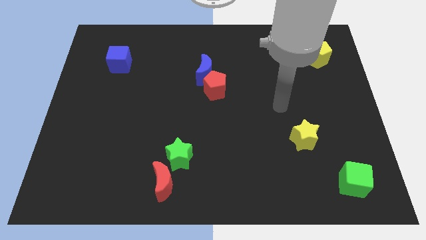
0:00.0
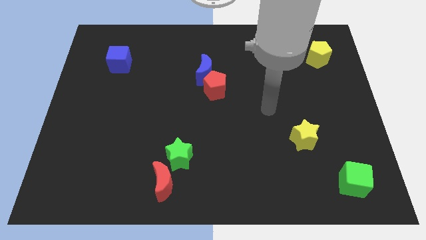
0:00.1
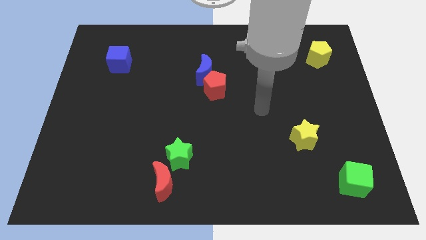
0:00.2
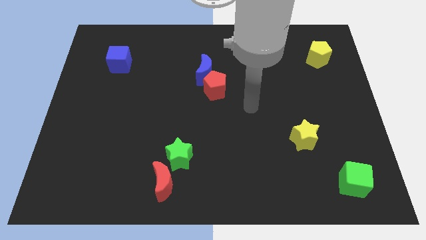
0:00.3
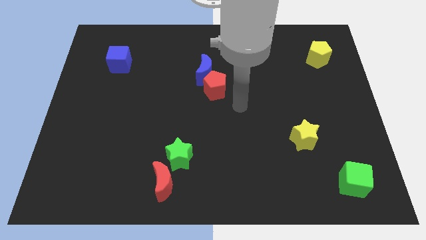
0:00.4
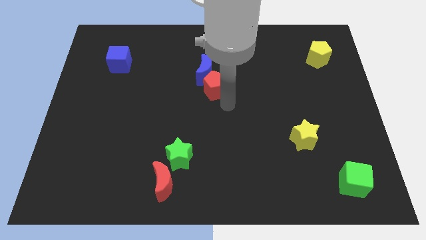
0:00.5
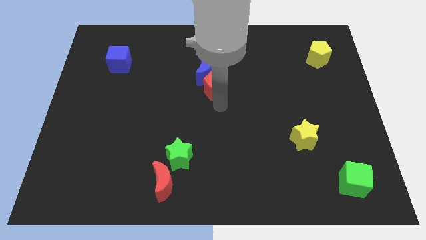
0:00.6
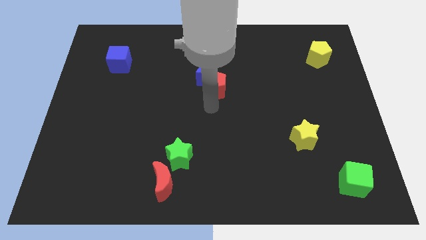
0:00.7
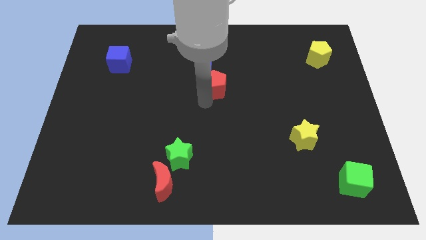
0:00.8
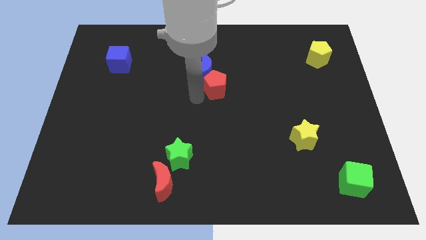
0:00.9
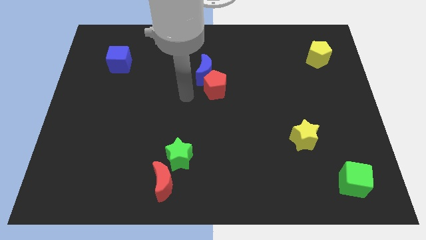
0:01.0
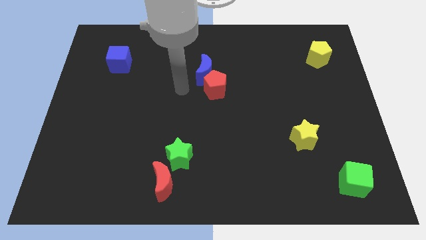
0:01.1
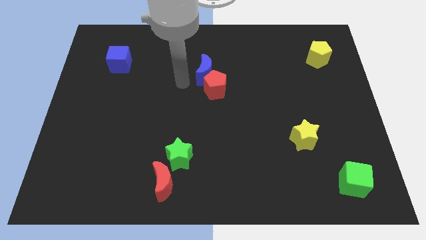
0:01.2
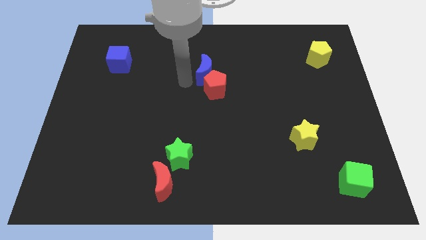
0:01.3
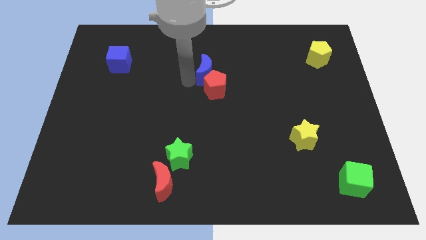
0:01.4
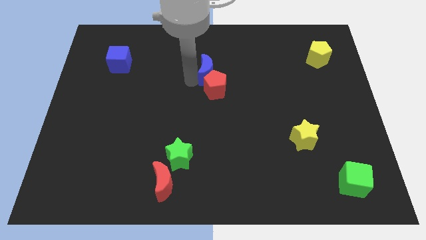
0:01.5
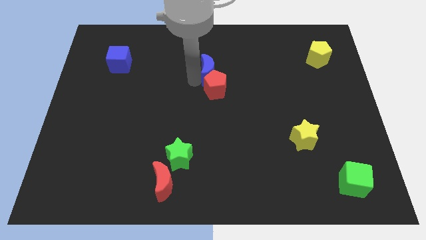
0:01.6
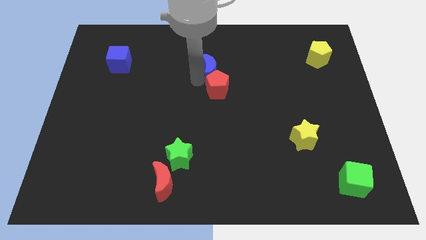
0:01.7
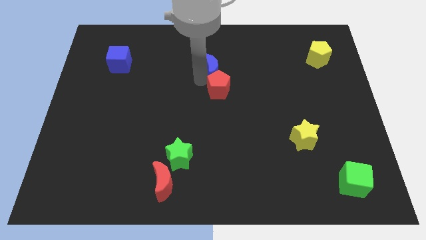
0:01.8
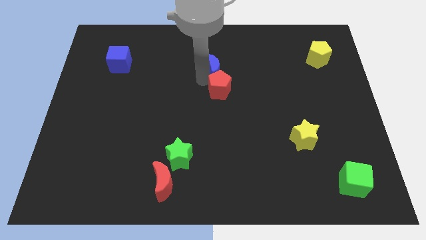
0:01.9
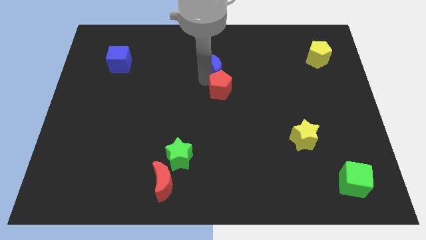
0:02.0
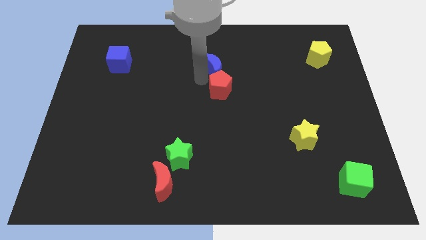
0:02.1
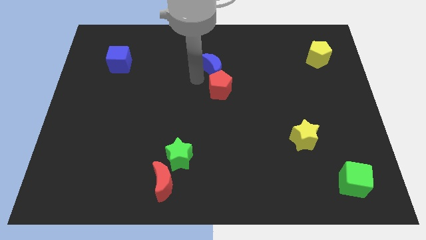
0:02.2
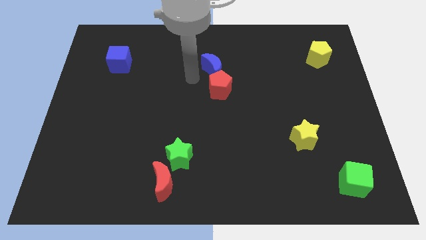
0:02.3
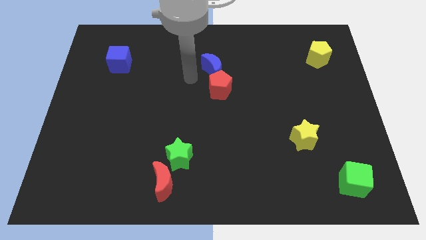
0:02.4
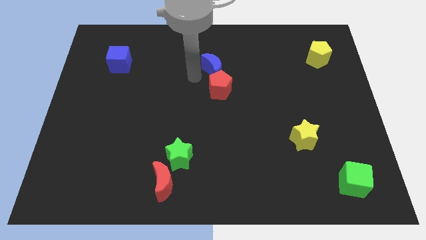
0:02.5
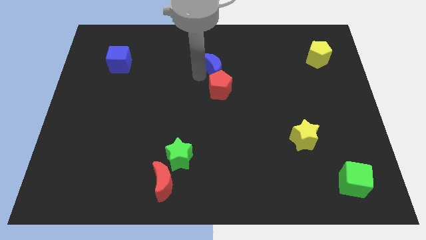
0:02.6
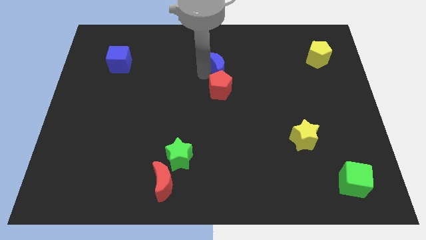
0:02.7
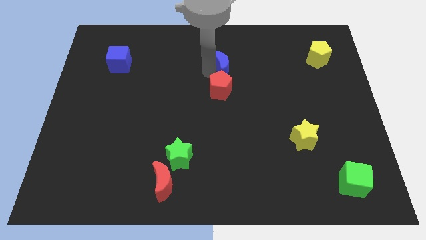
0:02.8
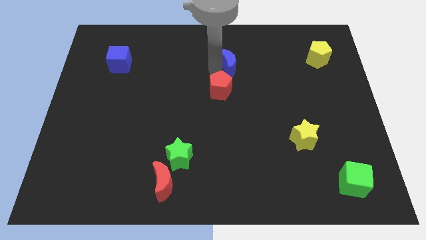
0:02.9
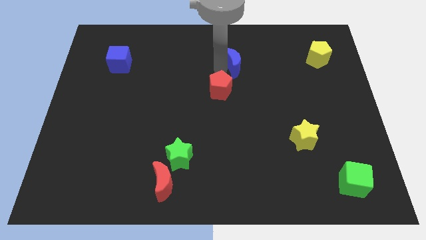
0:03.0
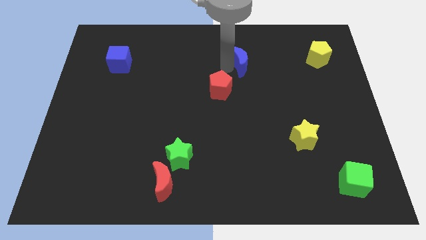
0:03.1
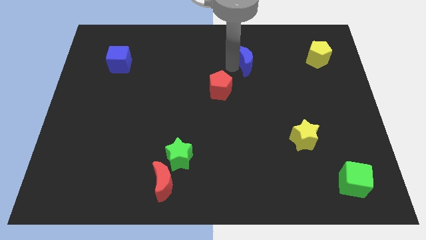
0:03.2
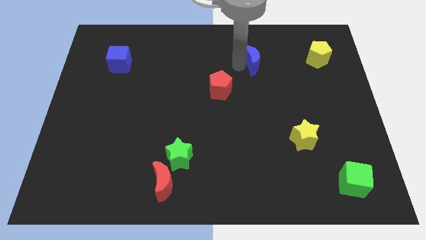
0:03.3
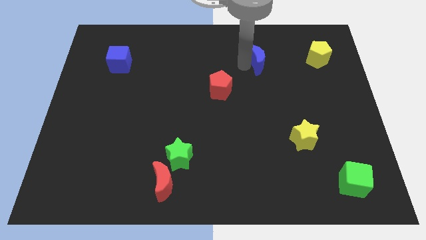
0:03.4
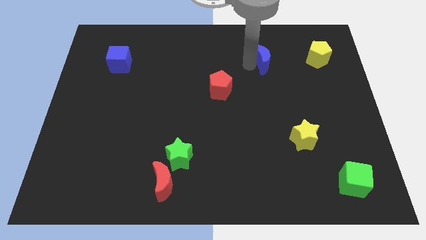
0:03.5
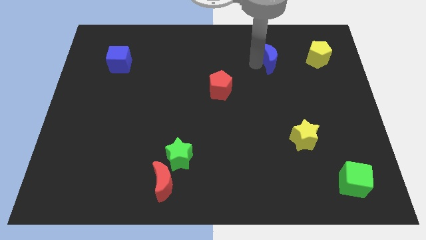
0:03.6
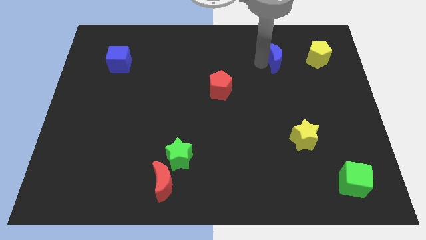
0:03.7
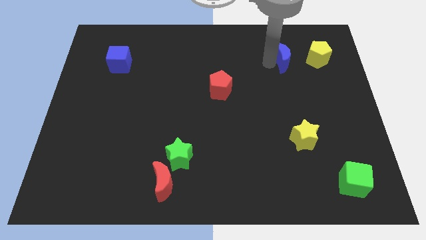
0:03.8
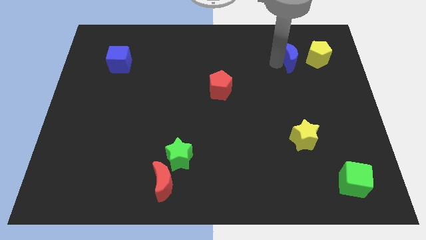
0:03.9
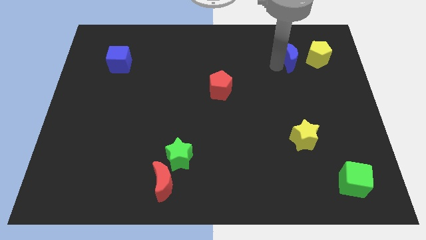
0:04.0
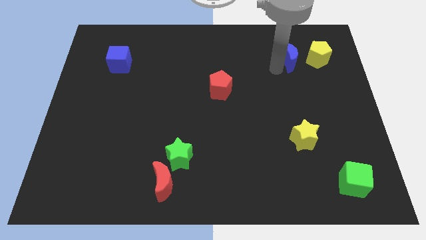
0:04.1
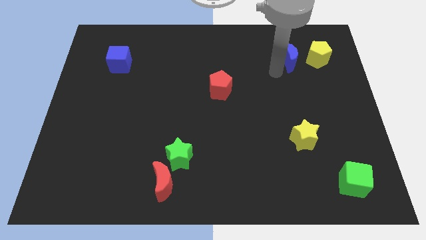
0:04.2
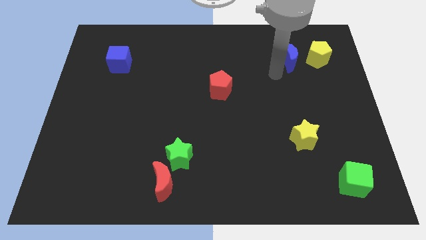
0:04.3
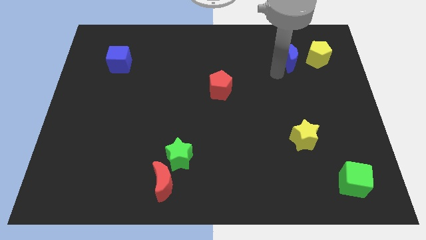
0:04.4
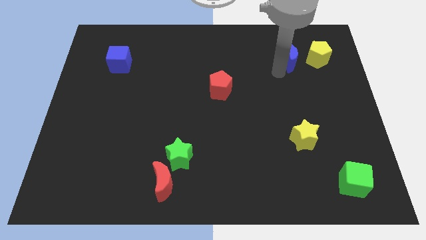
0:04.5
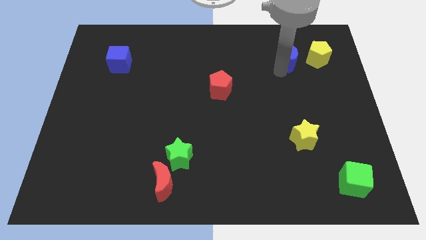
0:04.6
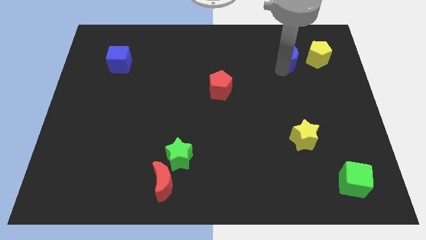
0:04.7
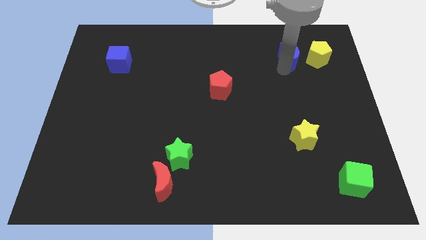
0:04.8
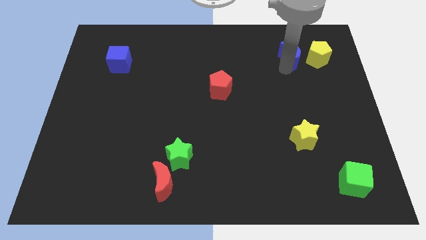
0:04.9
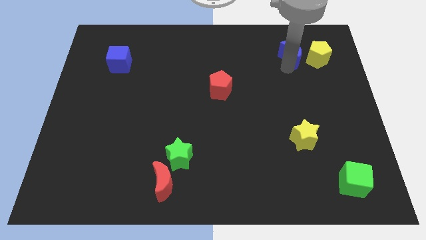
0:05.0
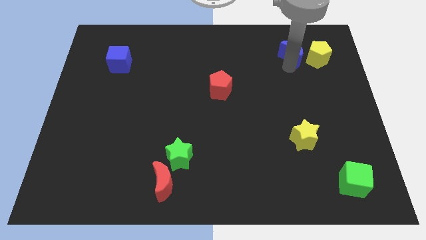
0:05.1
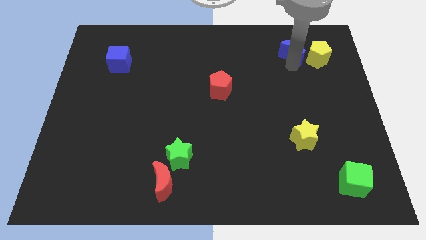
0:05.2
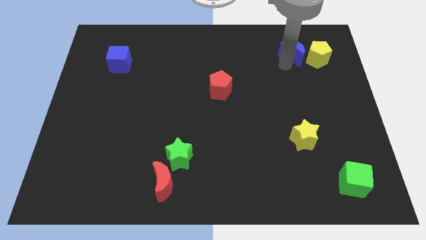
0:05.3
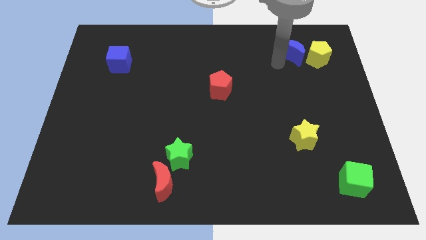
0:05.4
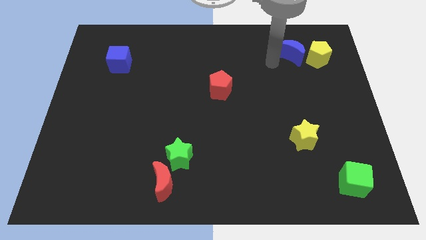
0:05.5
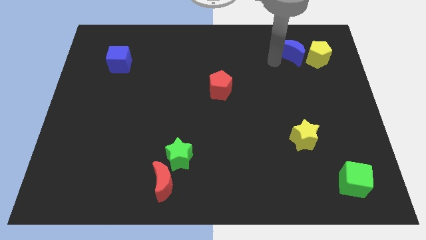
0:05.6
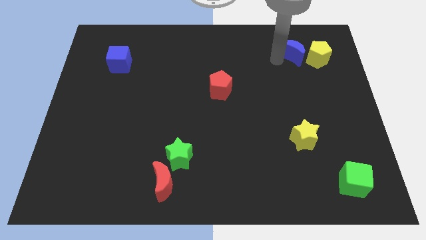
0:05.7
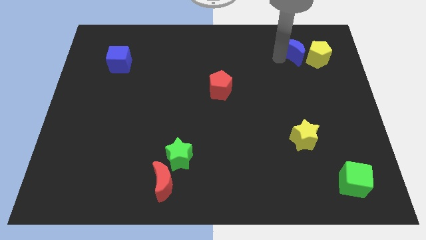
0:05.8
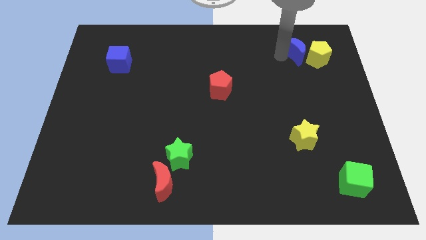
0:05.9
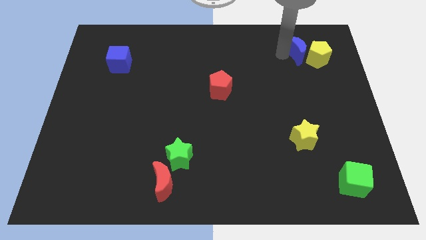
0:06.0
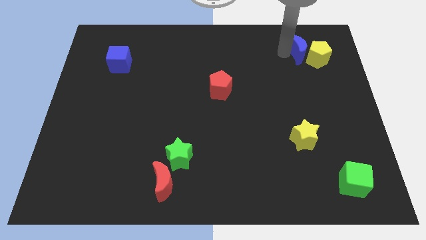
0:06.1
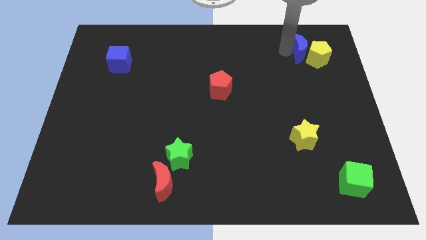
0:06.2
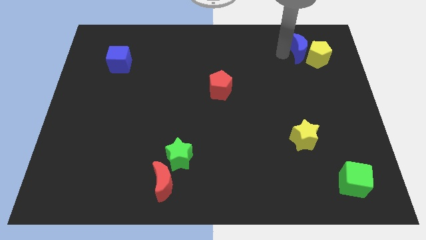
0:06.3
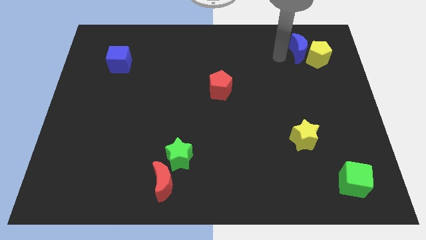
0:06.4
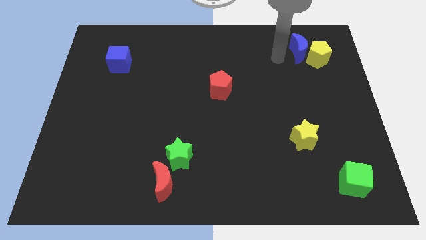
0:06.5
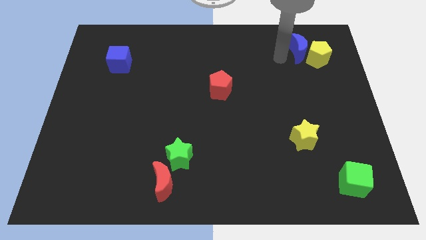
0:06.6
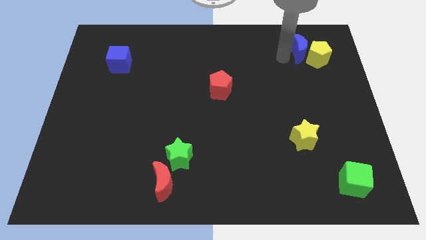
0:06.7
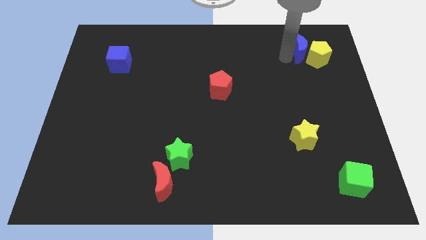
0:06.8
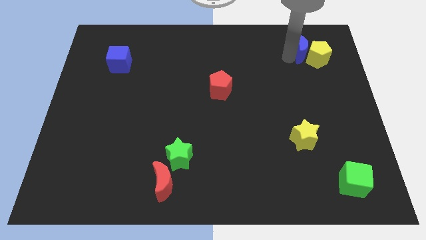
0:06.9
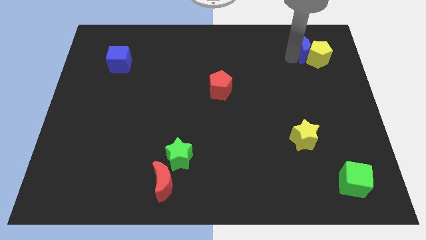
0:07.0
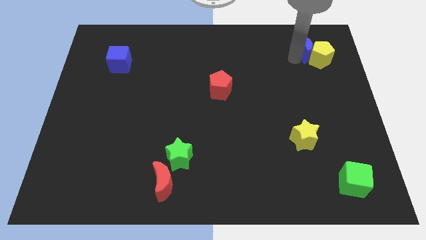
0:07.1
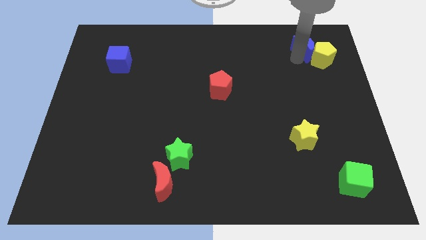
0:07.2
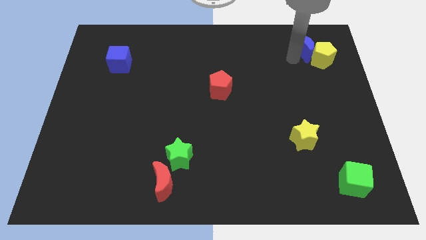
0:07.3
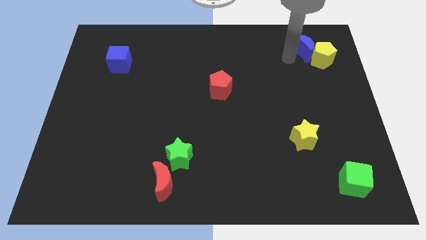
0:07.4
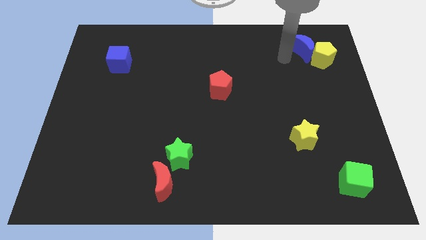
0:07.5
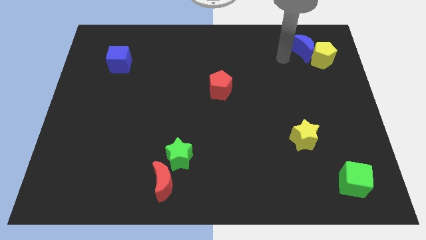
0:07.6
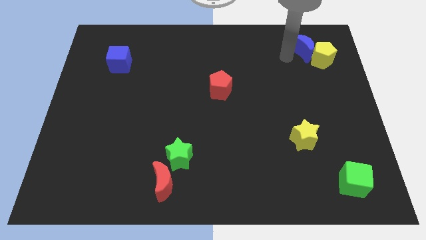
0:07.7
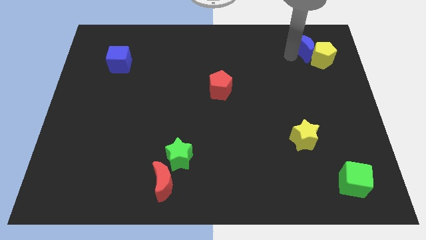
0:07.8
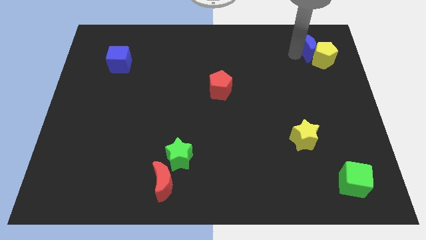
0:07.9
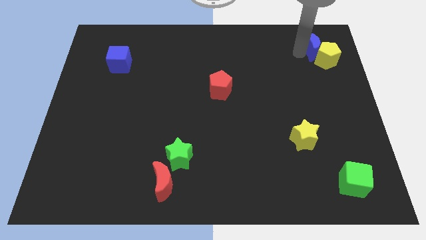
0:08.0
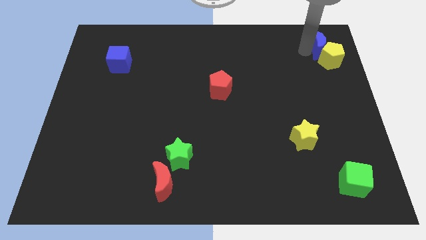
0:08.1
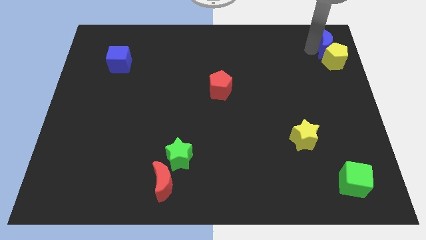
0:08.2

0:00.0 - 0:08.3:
slide the blue moon to the top right of the board
